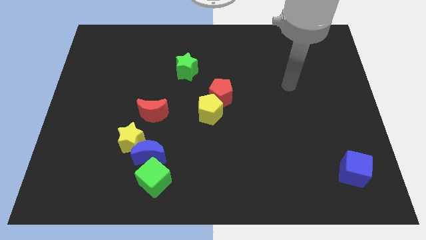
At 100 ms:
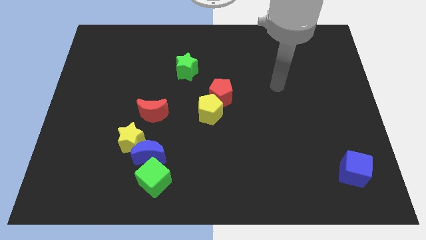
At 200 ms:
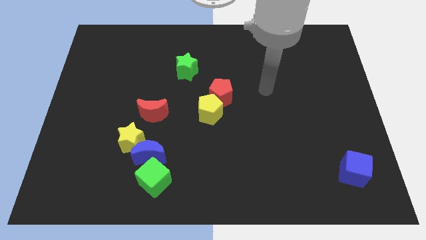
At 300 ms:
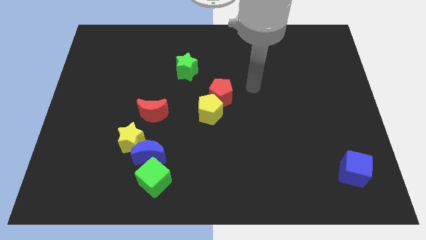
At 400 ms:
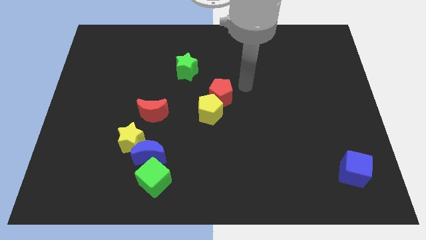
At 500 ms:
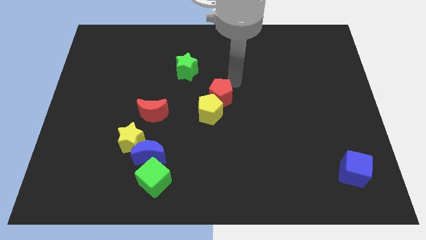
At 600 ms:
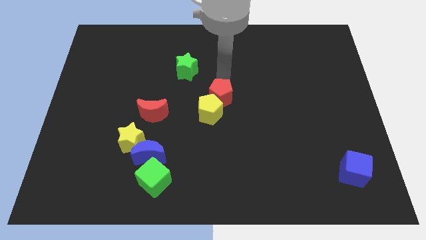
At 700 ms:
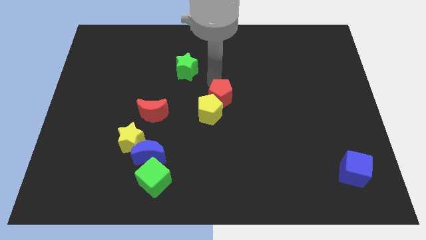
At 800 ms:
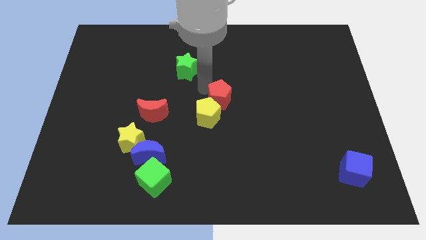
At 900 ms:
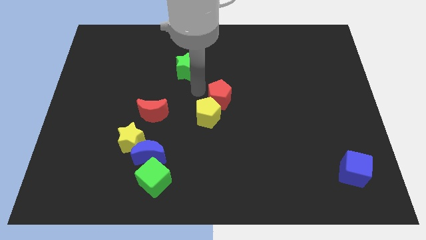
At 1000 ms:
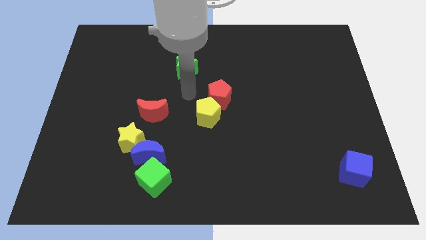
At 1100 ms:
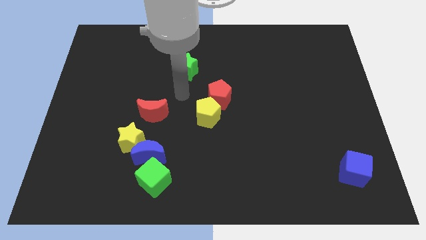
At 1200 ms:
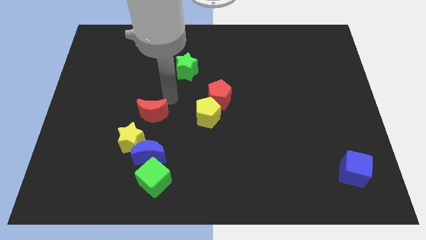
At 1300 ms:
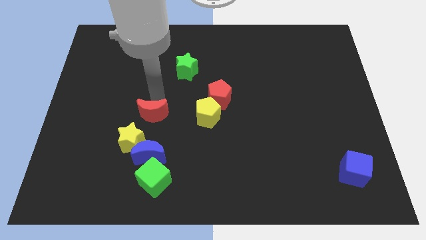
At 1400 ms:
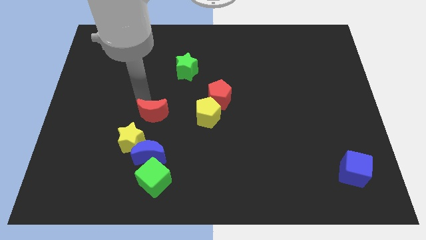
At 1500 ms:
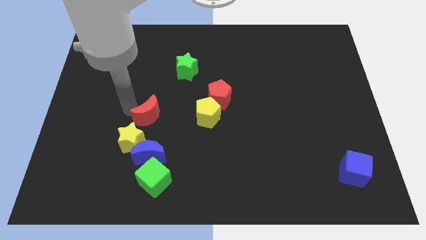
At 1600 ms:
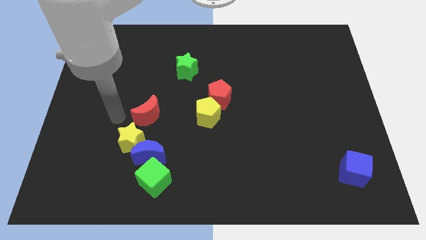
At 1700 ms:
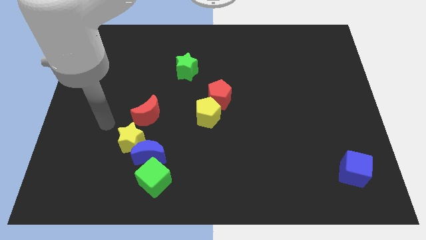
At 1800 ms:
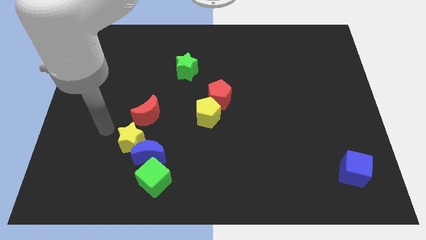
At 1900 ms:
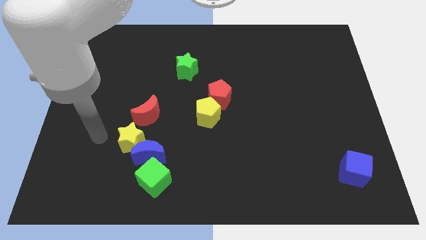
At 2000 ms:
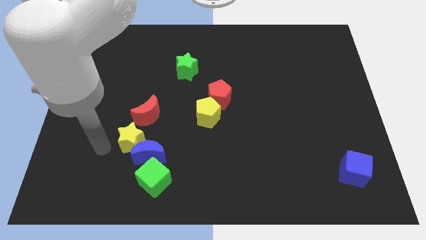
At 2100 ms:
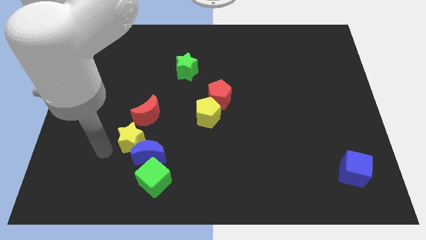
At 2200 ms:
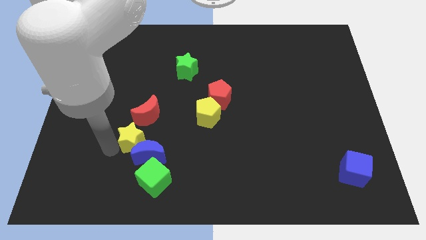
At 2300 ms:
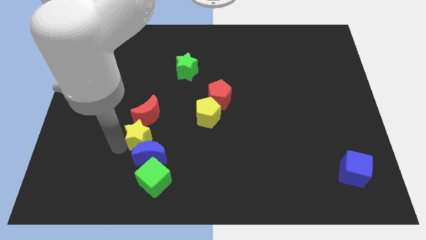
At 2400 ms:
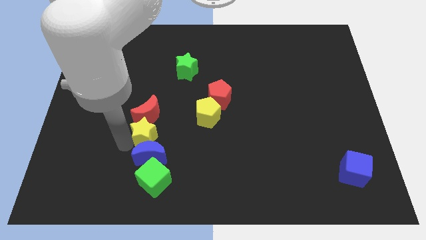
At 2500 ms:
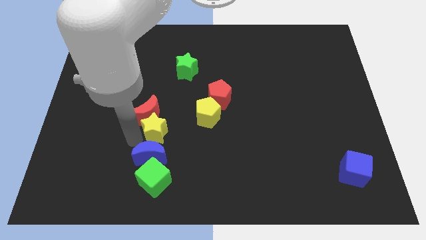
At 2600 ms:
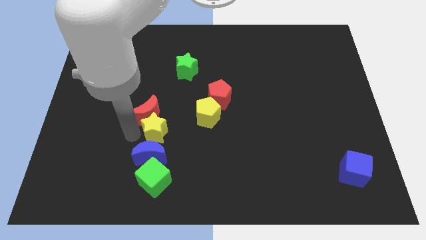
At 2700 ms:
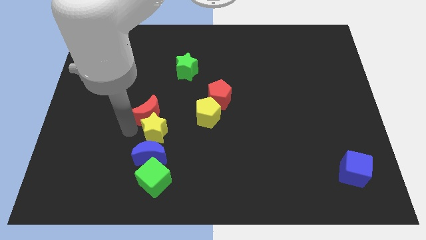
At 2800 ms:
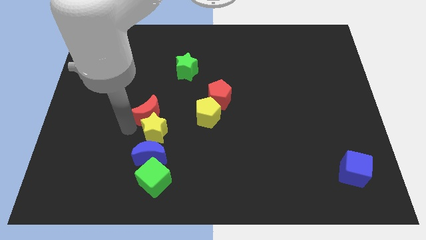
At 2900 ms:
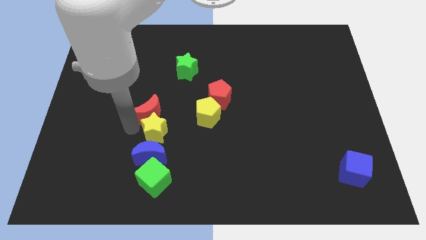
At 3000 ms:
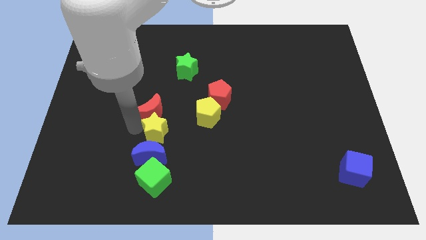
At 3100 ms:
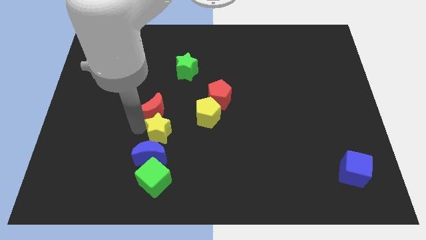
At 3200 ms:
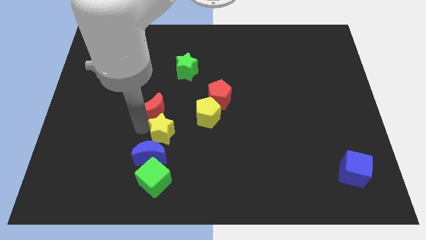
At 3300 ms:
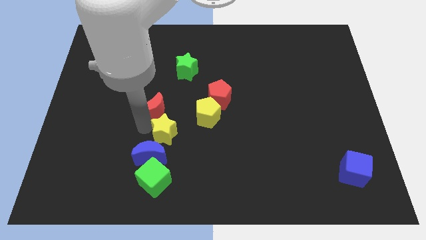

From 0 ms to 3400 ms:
slide the yellow star slightly right

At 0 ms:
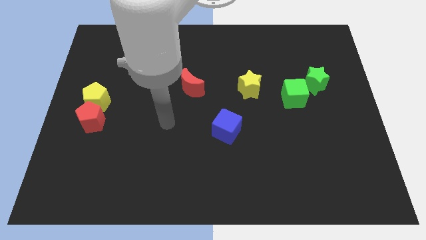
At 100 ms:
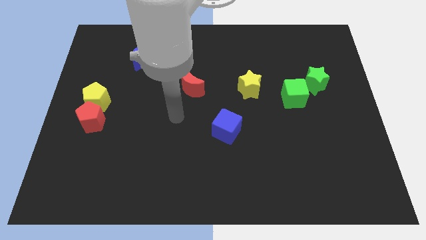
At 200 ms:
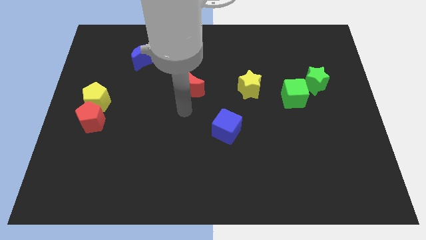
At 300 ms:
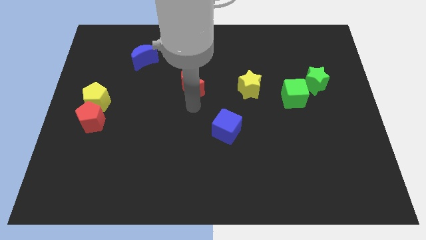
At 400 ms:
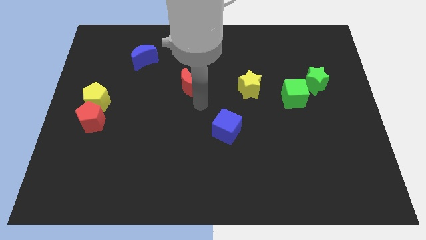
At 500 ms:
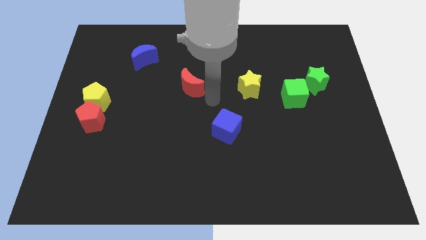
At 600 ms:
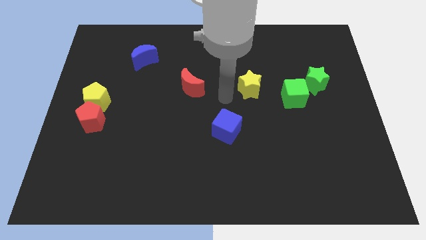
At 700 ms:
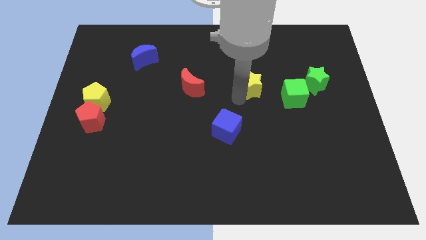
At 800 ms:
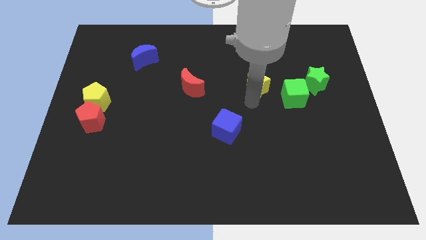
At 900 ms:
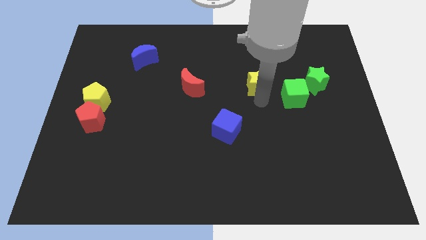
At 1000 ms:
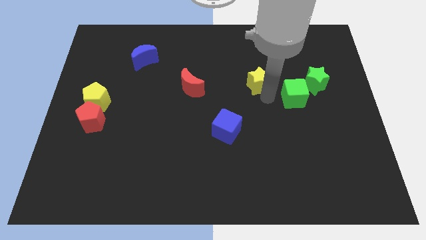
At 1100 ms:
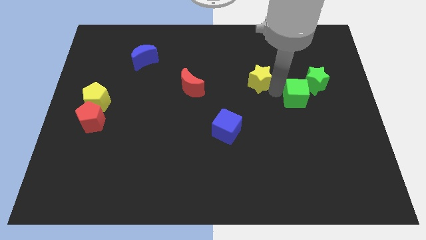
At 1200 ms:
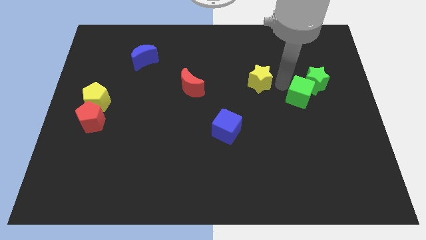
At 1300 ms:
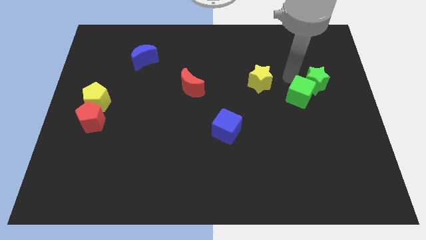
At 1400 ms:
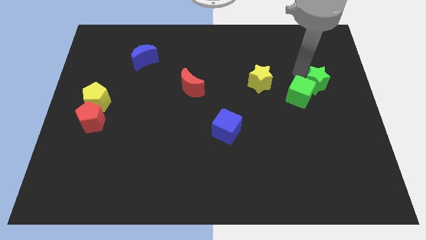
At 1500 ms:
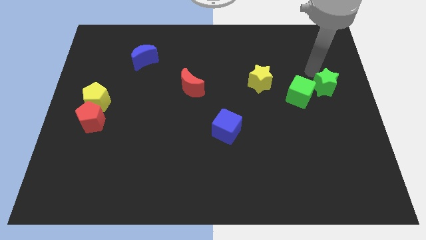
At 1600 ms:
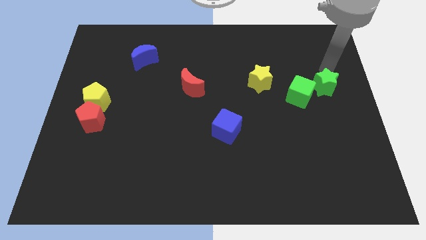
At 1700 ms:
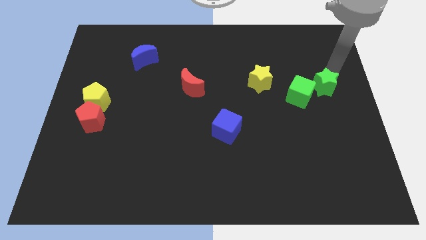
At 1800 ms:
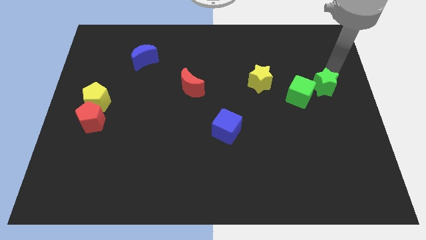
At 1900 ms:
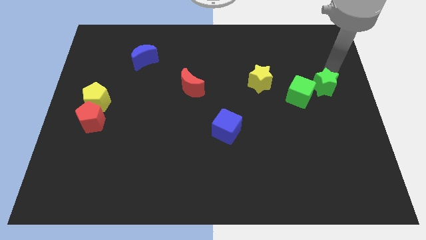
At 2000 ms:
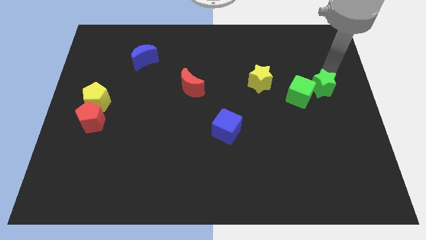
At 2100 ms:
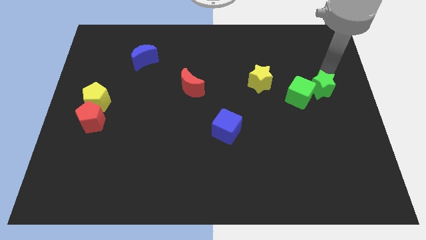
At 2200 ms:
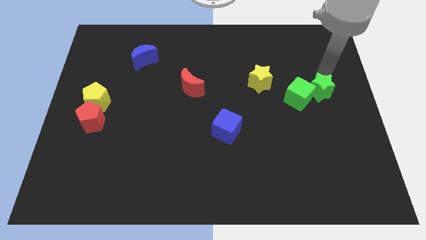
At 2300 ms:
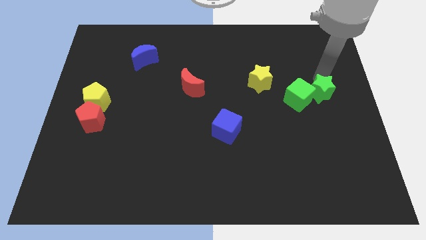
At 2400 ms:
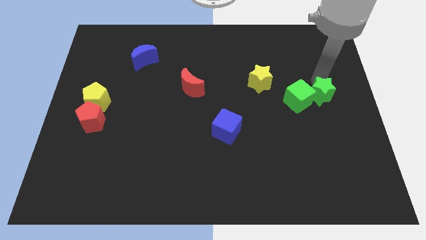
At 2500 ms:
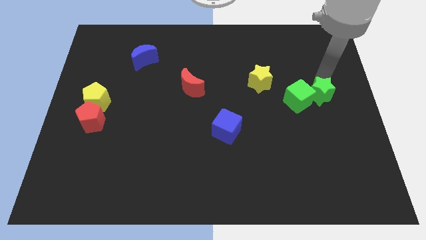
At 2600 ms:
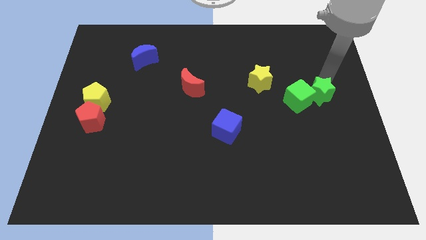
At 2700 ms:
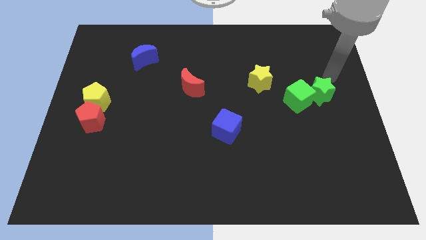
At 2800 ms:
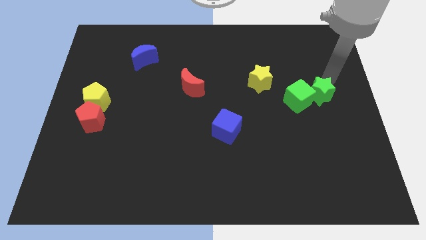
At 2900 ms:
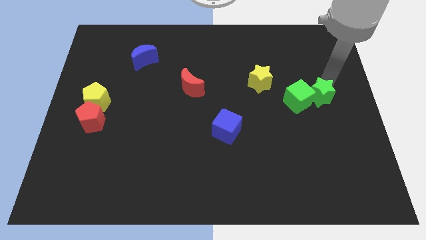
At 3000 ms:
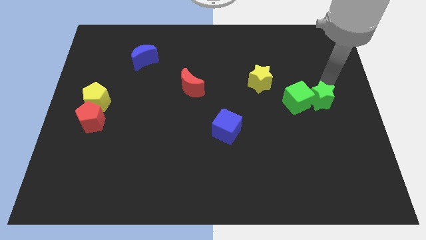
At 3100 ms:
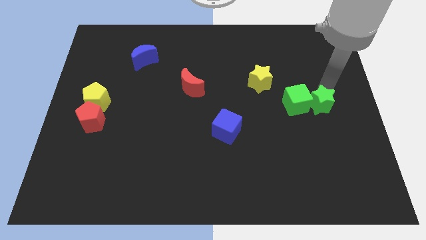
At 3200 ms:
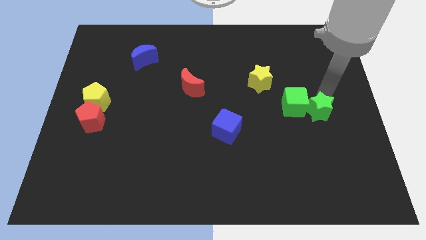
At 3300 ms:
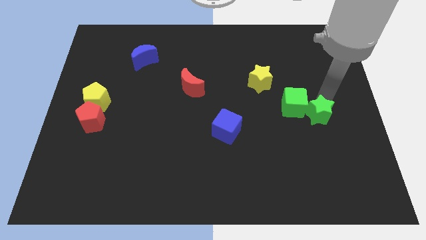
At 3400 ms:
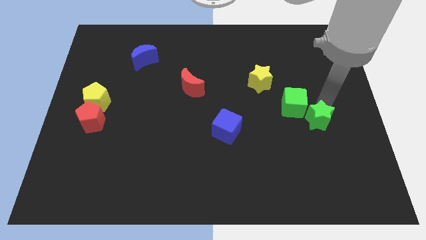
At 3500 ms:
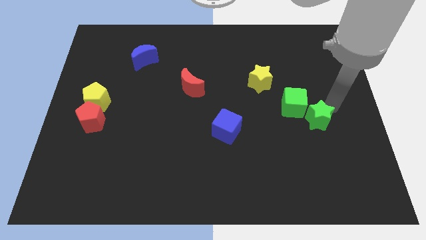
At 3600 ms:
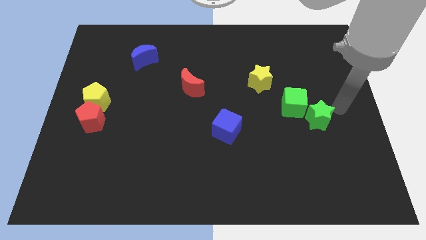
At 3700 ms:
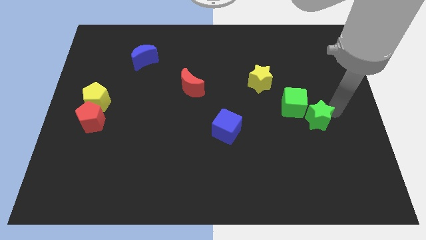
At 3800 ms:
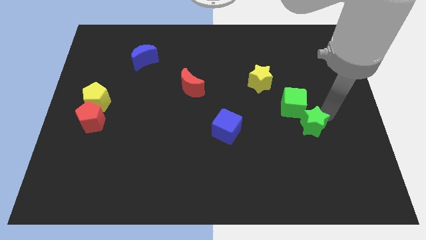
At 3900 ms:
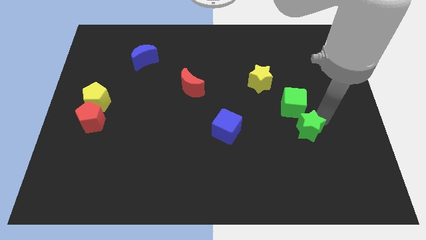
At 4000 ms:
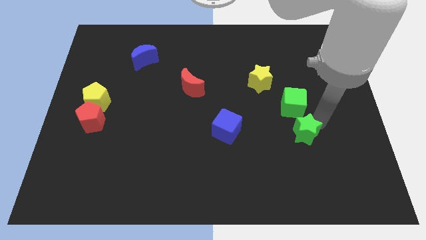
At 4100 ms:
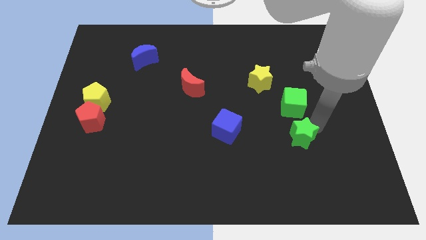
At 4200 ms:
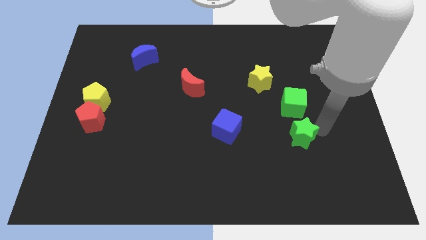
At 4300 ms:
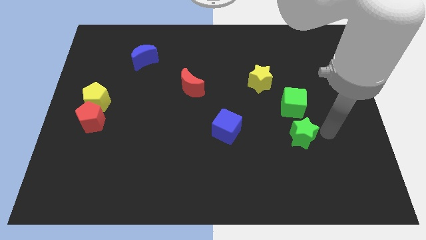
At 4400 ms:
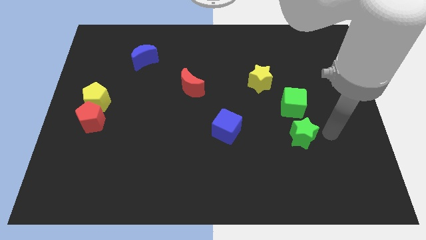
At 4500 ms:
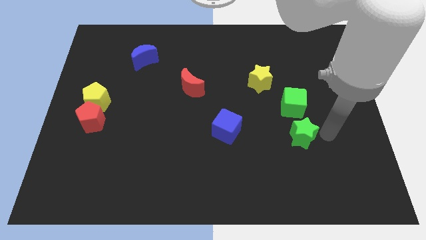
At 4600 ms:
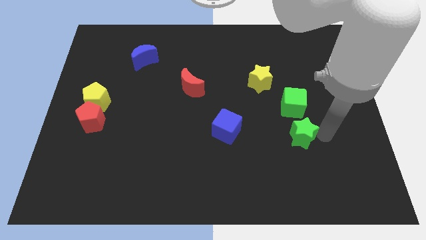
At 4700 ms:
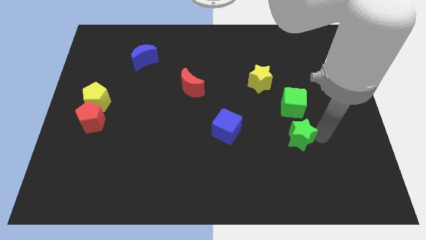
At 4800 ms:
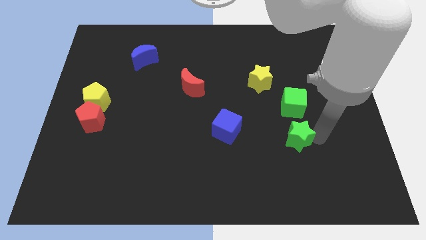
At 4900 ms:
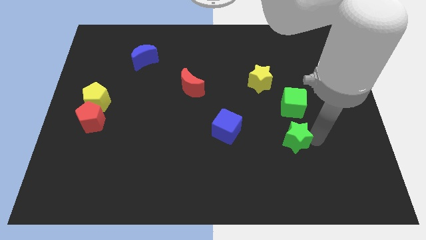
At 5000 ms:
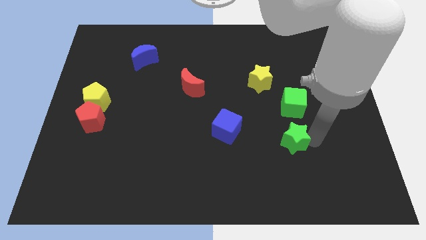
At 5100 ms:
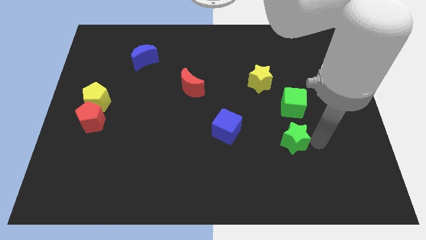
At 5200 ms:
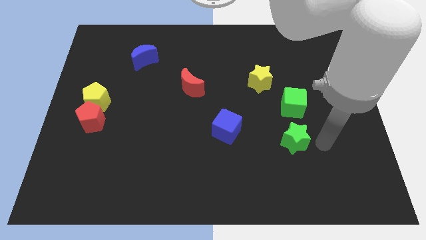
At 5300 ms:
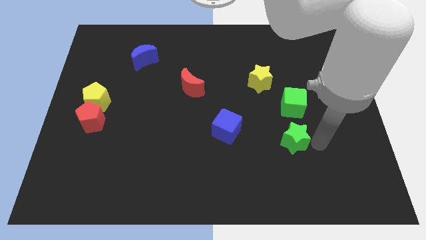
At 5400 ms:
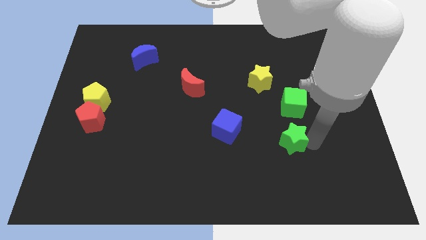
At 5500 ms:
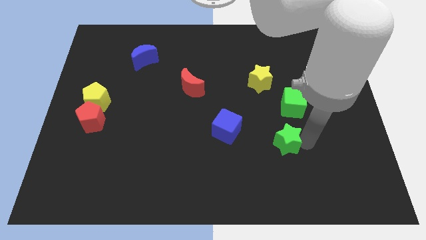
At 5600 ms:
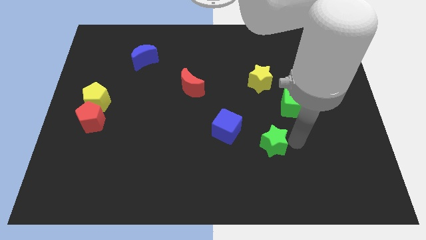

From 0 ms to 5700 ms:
push the green star diagonally downwards and to the left
